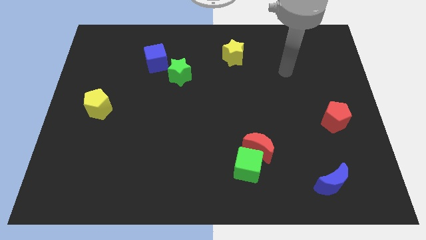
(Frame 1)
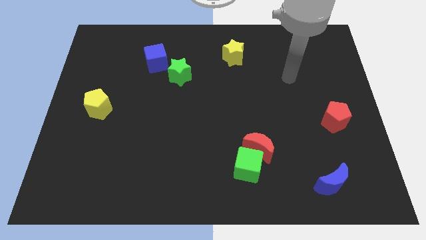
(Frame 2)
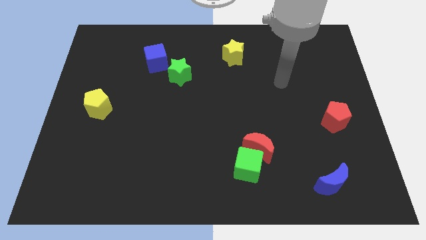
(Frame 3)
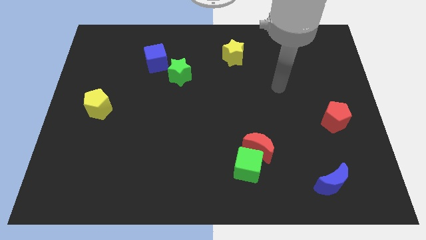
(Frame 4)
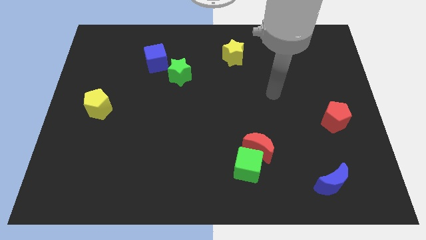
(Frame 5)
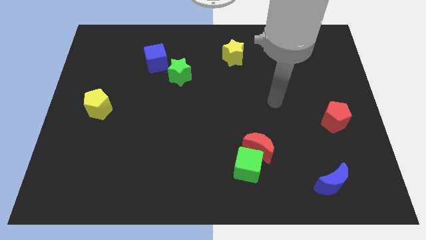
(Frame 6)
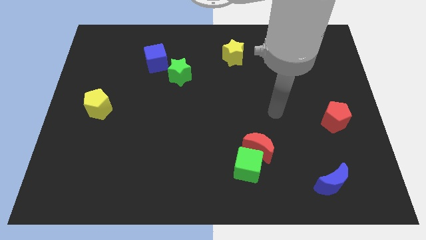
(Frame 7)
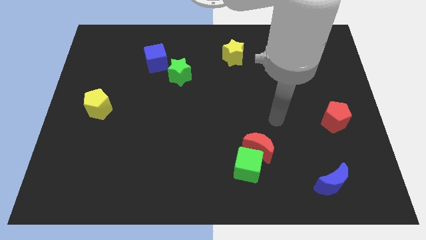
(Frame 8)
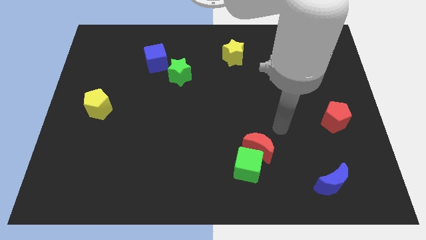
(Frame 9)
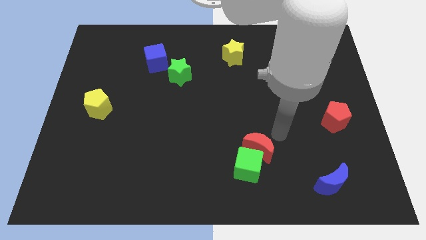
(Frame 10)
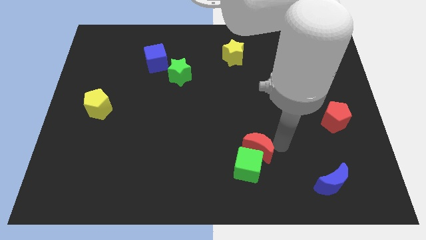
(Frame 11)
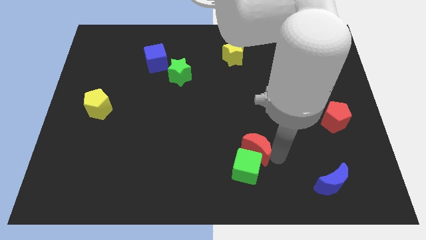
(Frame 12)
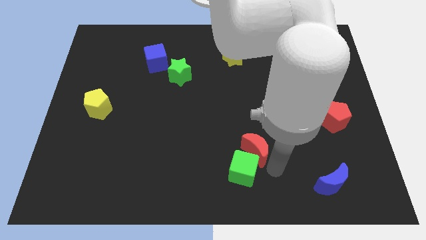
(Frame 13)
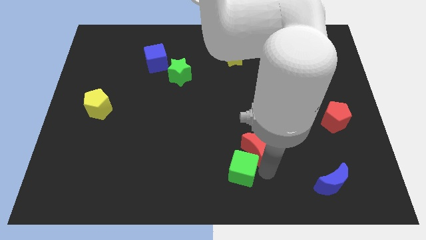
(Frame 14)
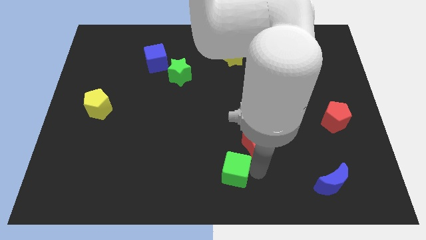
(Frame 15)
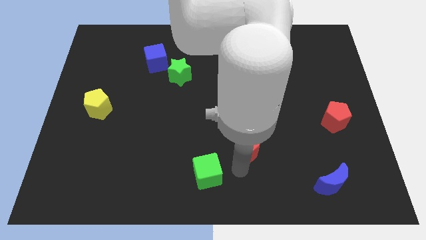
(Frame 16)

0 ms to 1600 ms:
move the red moon away from the green cube

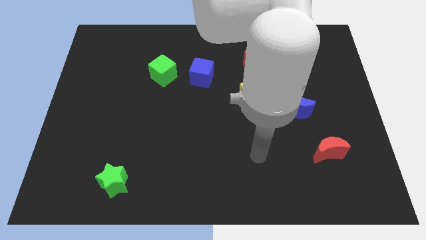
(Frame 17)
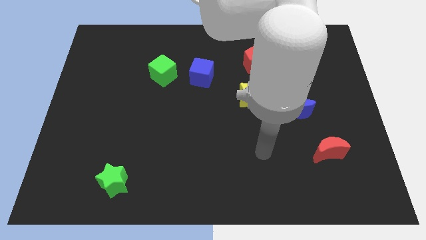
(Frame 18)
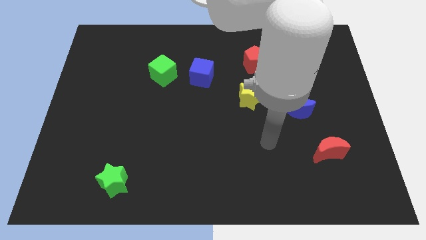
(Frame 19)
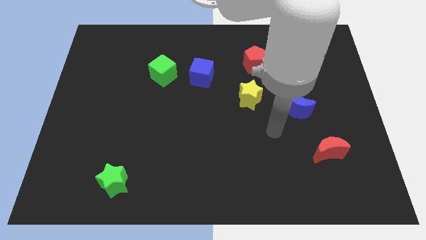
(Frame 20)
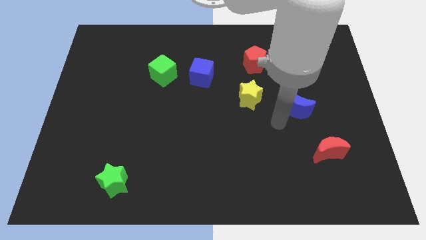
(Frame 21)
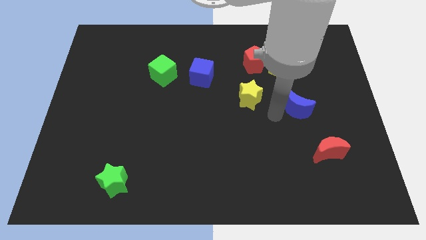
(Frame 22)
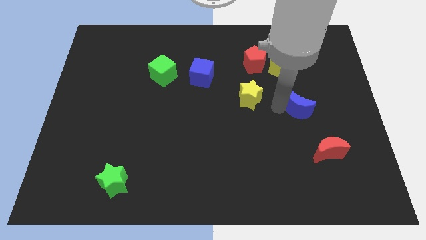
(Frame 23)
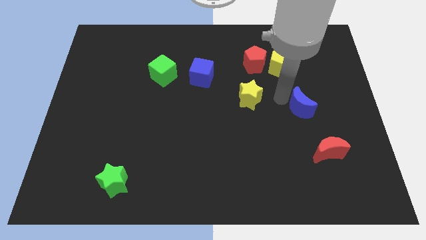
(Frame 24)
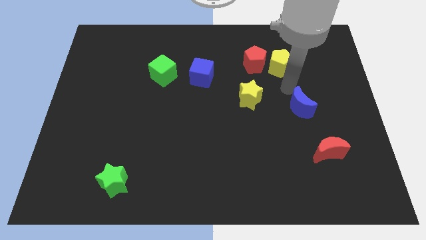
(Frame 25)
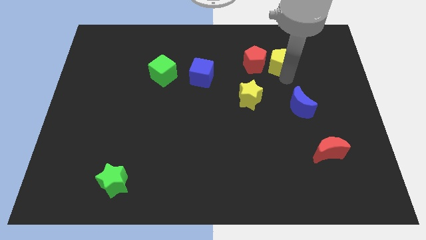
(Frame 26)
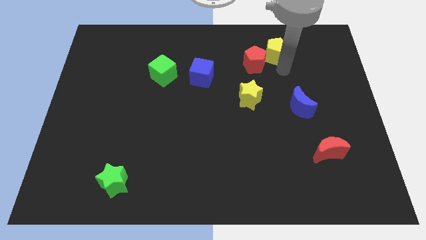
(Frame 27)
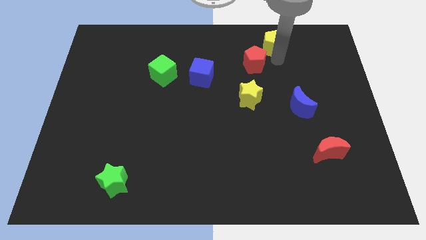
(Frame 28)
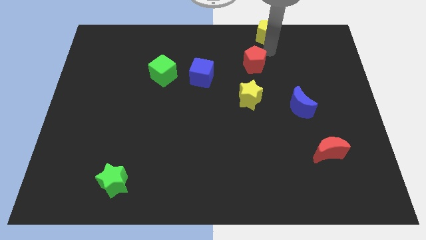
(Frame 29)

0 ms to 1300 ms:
pull the red pentagon apart from the yellow pentagon

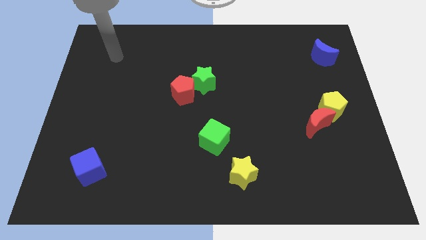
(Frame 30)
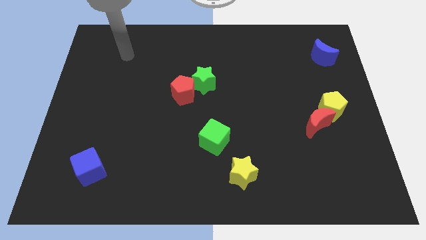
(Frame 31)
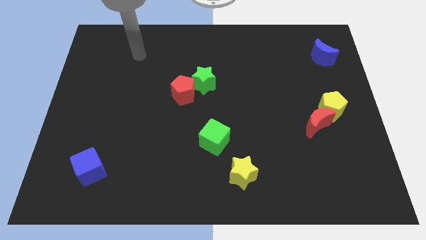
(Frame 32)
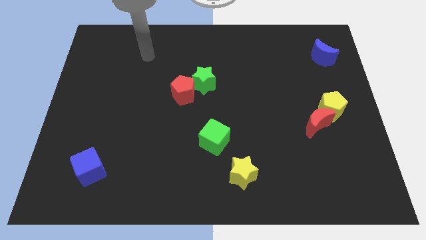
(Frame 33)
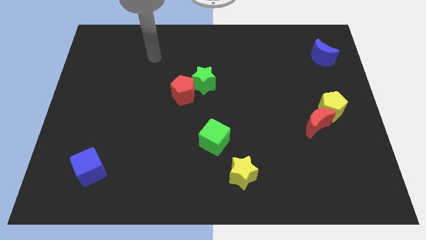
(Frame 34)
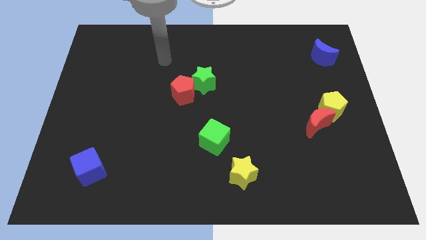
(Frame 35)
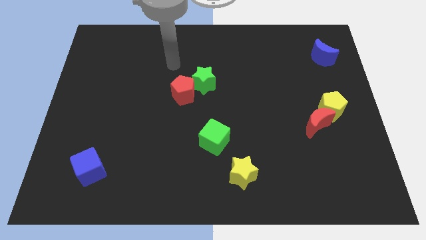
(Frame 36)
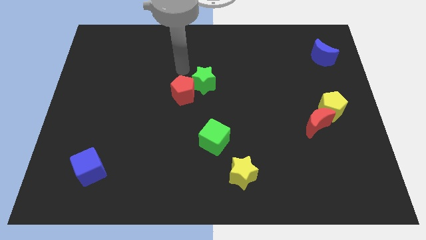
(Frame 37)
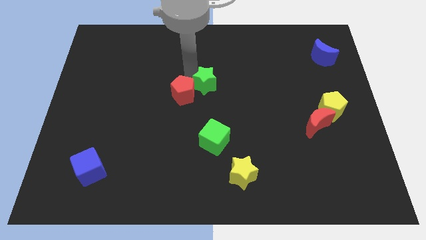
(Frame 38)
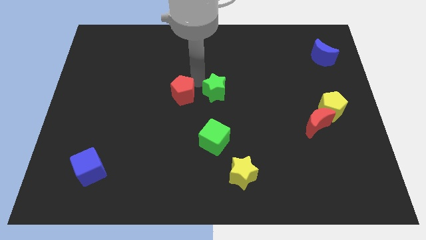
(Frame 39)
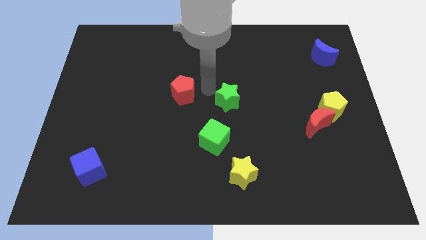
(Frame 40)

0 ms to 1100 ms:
move the red pentagon away from the green star

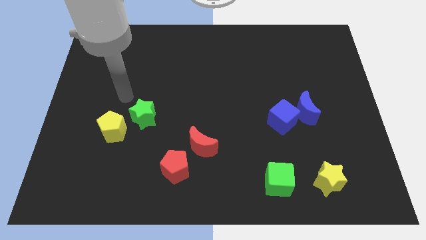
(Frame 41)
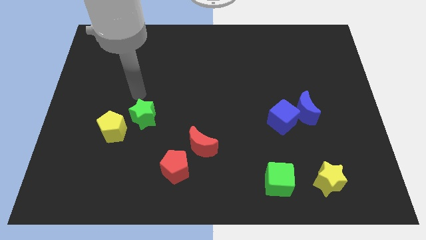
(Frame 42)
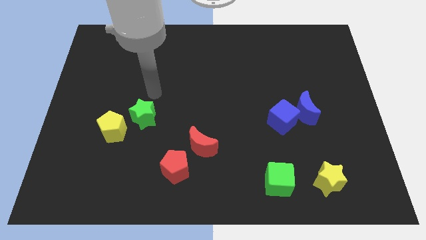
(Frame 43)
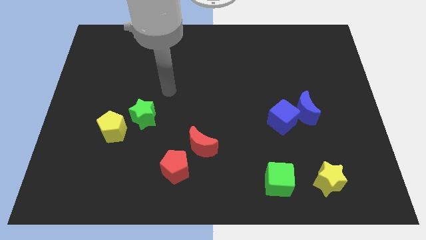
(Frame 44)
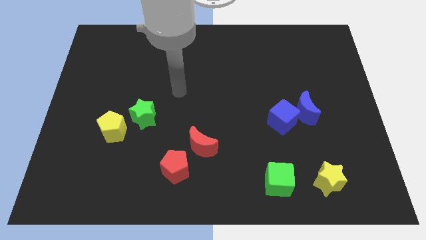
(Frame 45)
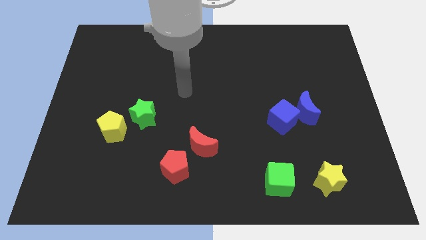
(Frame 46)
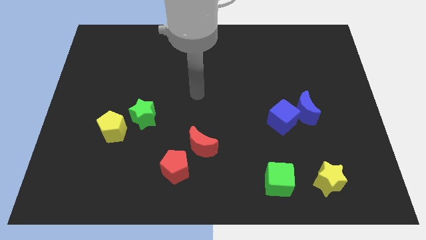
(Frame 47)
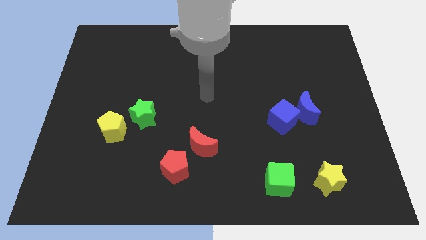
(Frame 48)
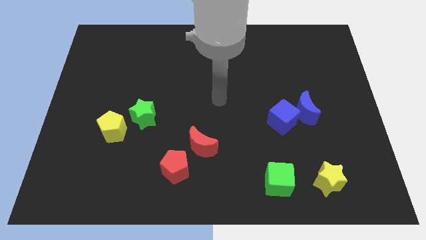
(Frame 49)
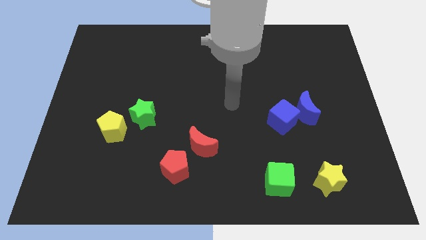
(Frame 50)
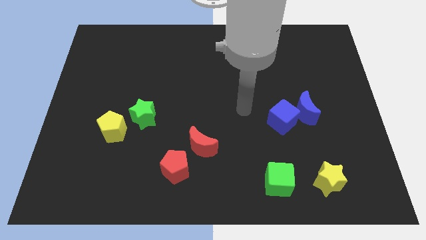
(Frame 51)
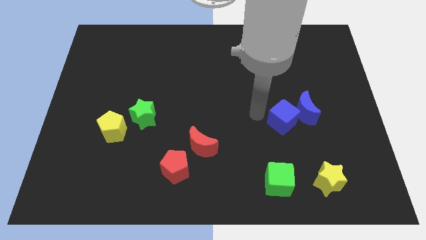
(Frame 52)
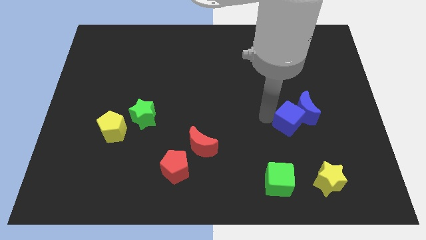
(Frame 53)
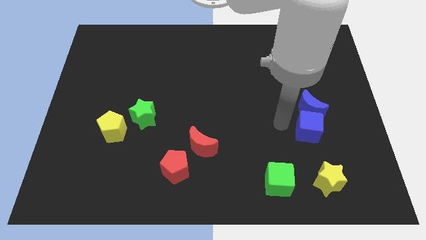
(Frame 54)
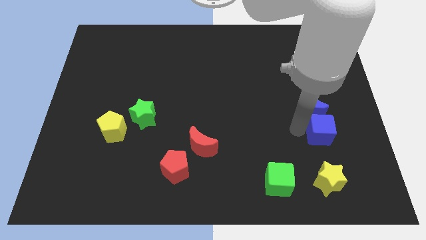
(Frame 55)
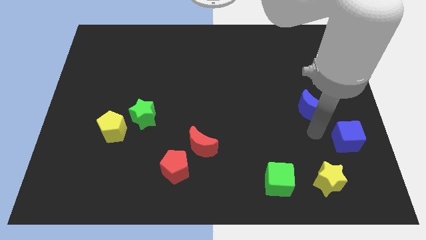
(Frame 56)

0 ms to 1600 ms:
pull the blue moon apart from the blue cube

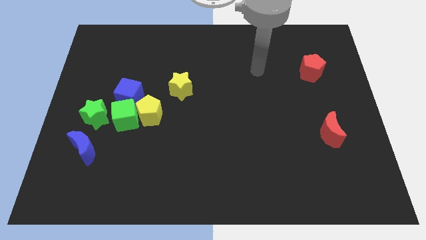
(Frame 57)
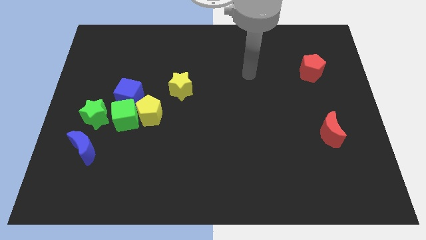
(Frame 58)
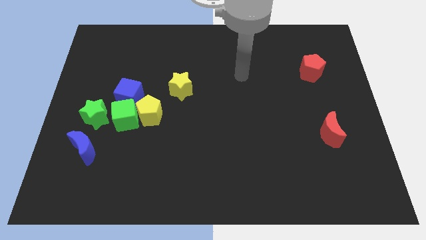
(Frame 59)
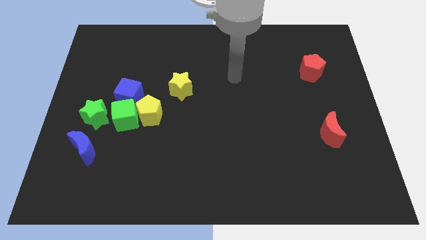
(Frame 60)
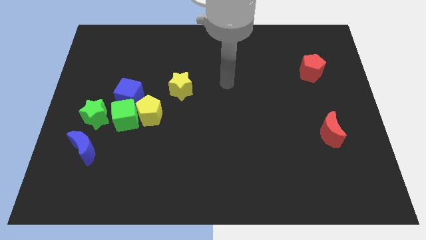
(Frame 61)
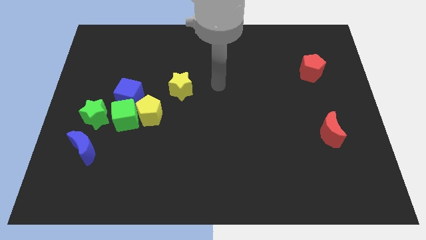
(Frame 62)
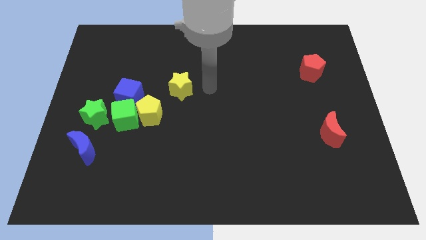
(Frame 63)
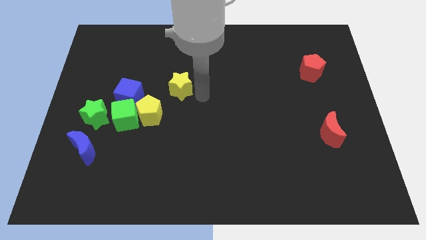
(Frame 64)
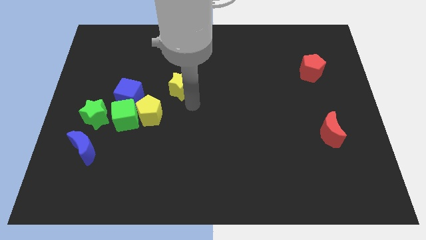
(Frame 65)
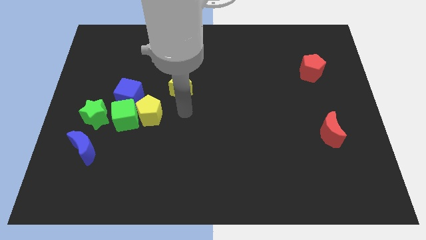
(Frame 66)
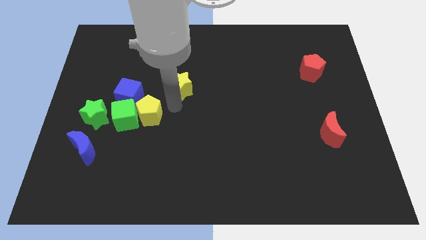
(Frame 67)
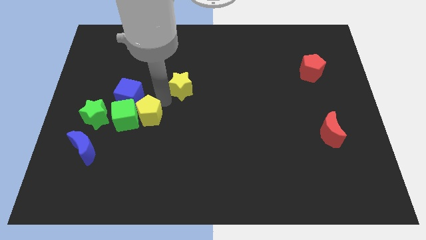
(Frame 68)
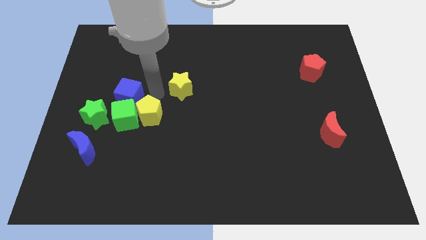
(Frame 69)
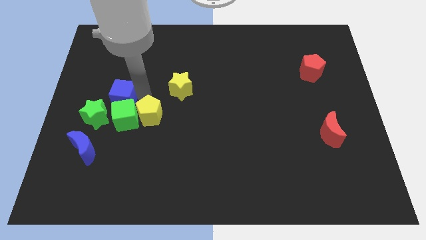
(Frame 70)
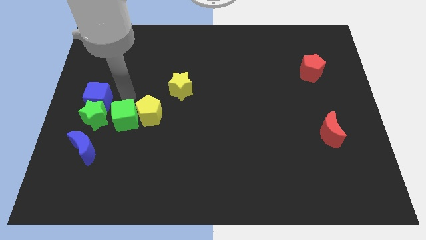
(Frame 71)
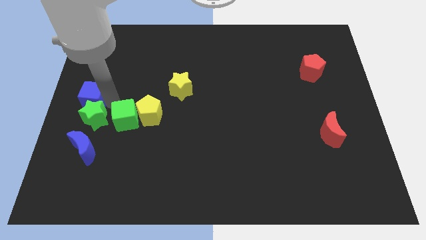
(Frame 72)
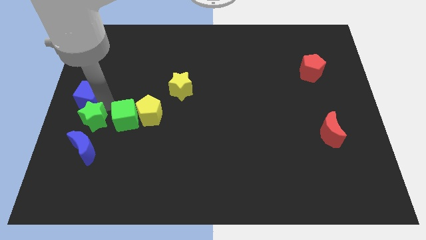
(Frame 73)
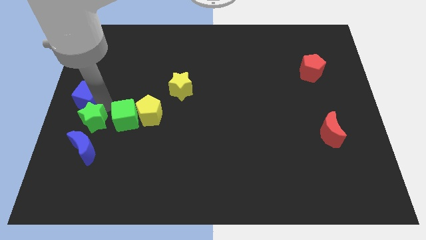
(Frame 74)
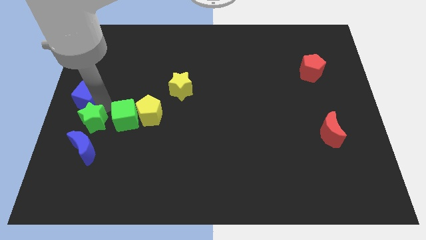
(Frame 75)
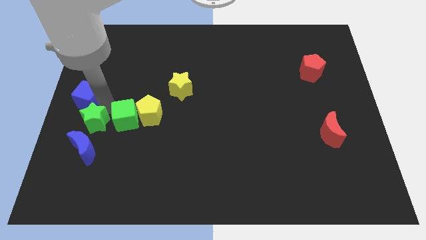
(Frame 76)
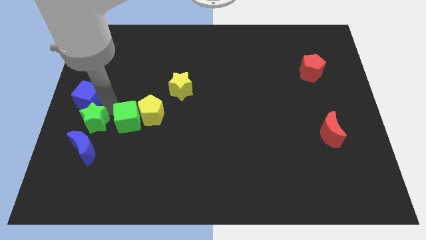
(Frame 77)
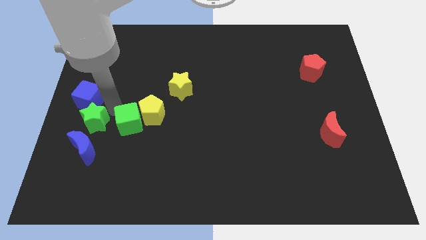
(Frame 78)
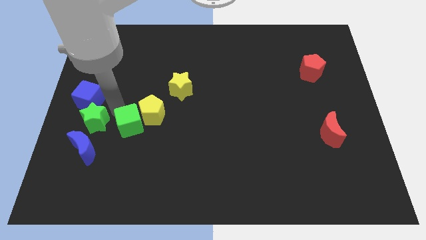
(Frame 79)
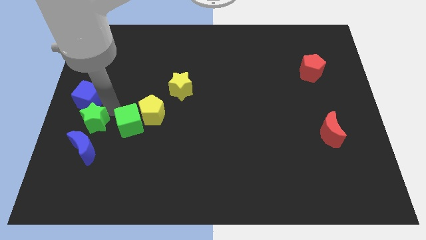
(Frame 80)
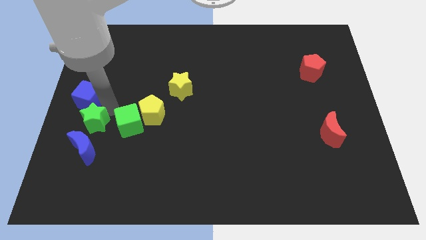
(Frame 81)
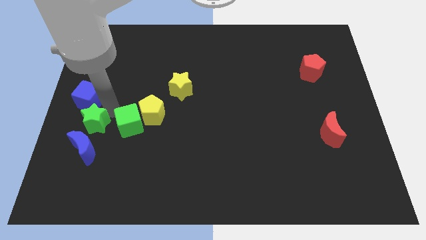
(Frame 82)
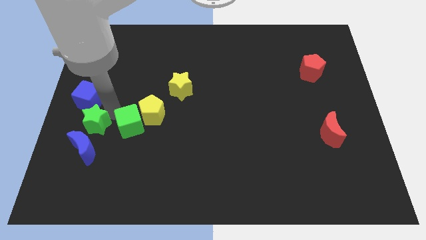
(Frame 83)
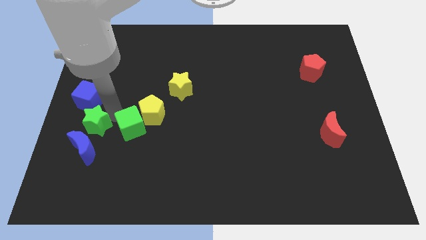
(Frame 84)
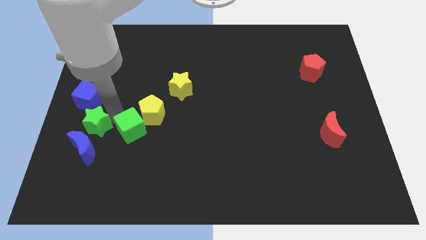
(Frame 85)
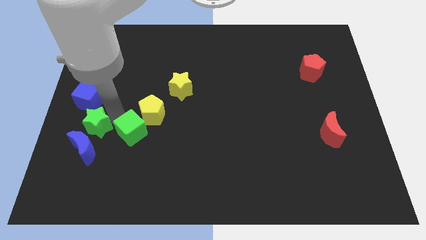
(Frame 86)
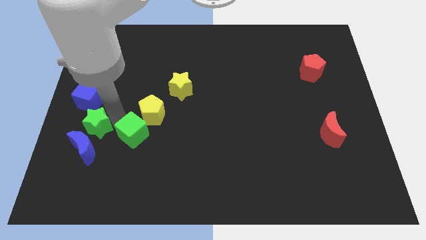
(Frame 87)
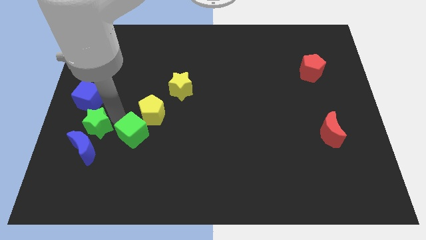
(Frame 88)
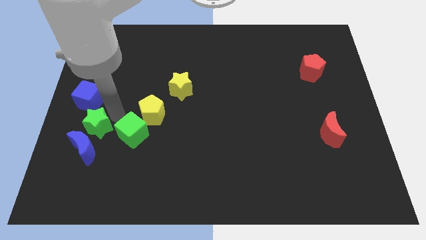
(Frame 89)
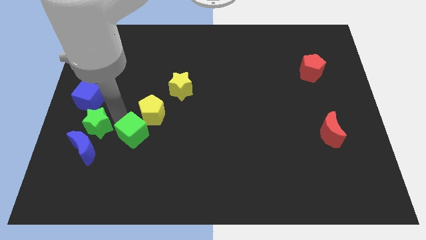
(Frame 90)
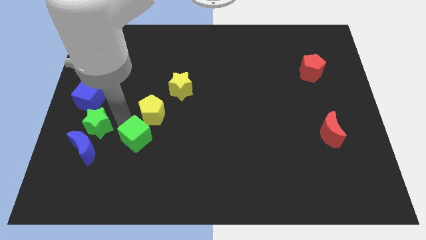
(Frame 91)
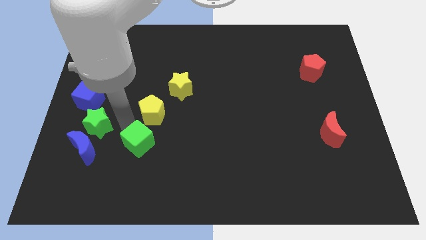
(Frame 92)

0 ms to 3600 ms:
separate the green cube from the yellow pentagon, blue cube, and green star

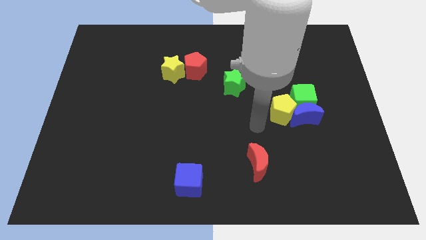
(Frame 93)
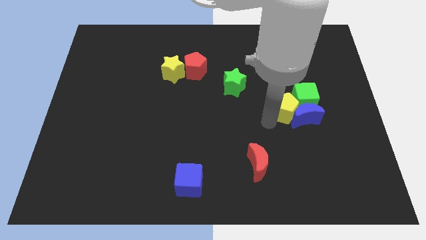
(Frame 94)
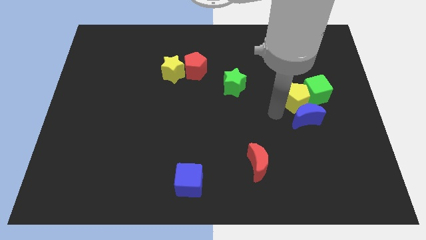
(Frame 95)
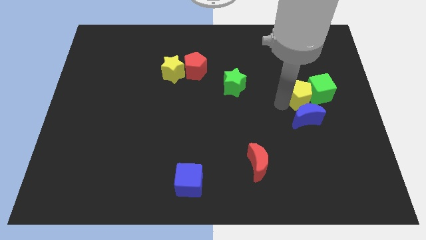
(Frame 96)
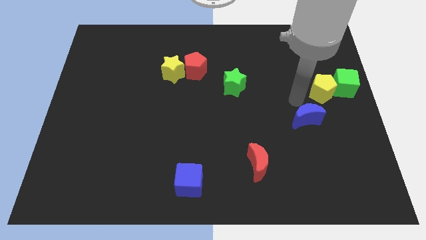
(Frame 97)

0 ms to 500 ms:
separate the blue moon from the green cube and yellow pentagon
